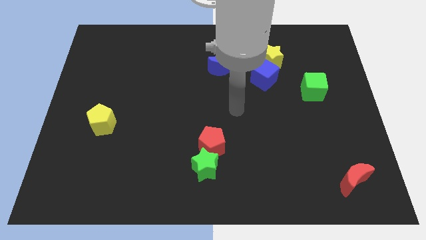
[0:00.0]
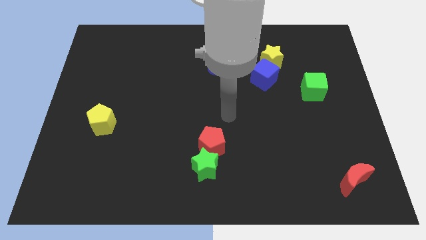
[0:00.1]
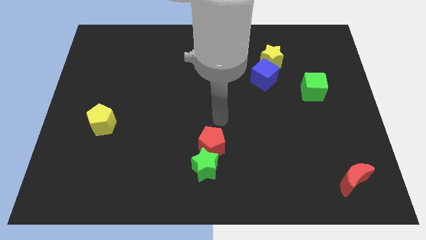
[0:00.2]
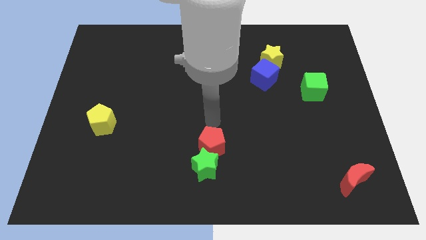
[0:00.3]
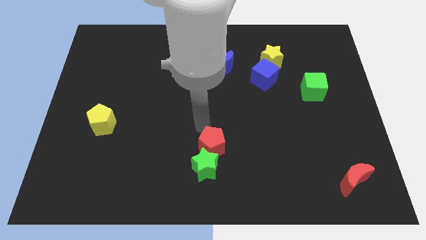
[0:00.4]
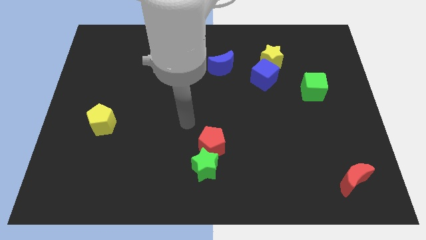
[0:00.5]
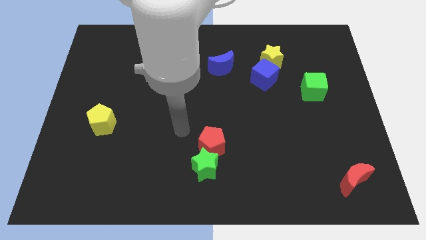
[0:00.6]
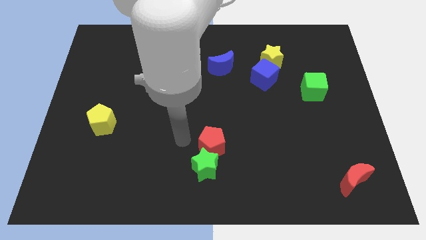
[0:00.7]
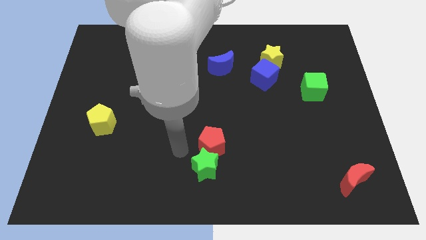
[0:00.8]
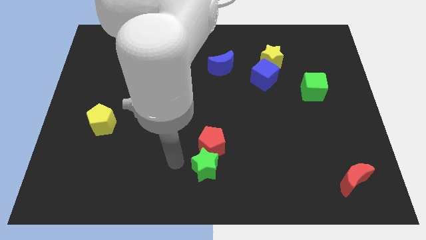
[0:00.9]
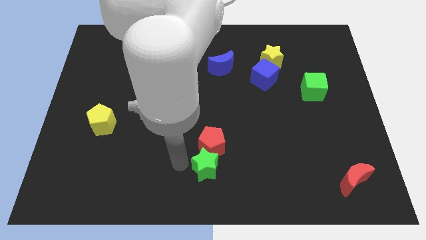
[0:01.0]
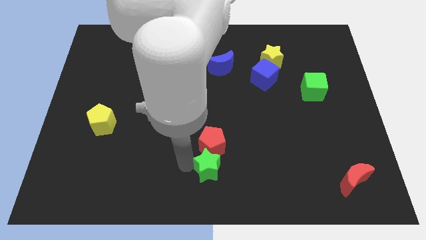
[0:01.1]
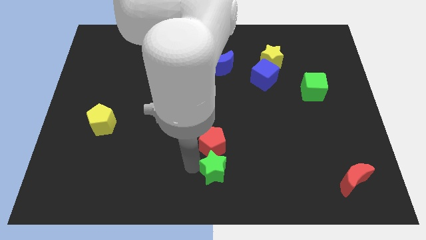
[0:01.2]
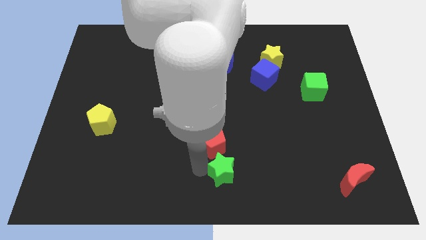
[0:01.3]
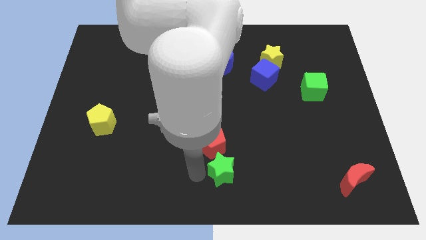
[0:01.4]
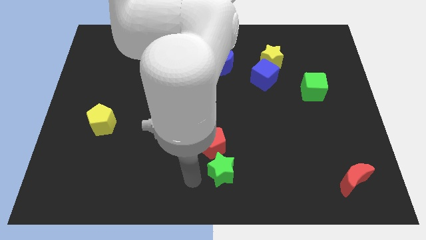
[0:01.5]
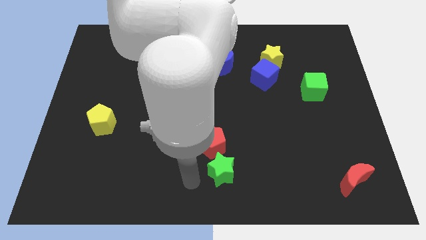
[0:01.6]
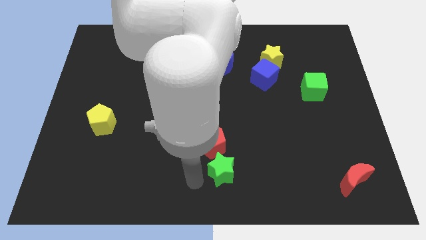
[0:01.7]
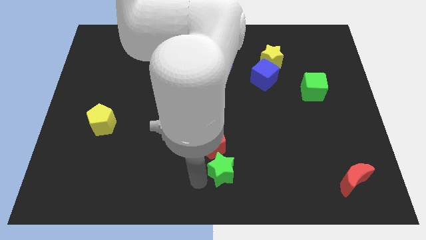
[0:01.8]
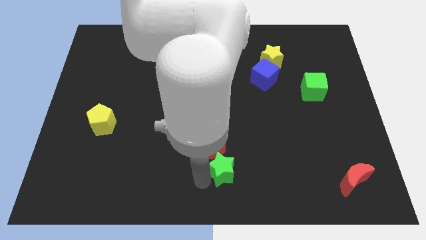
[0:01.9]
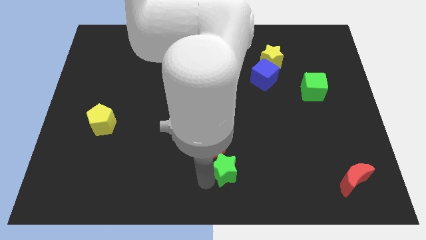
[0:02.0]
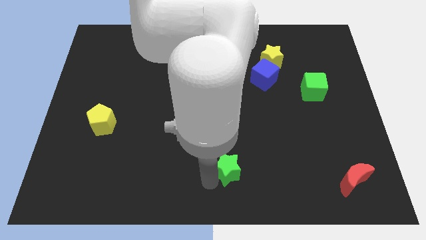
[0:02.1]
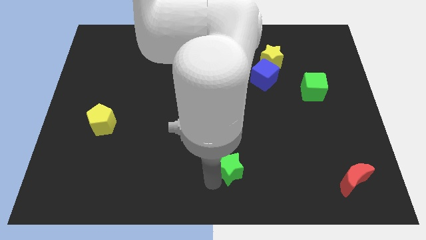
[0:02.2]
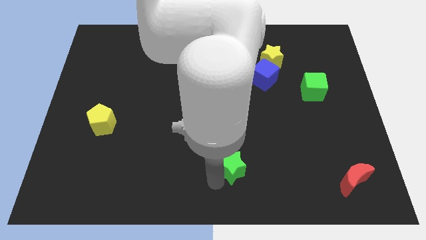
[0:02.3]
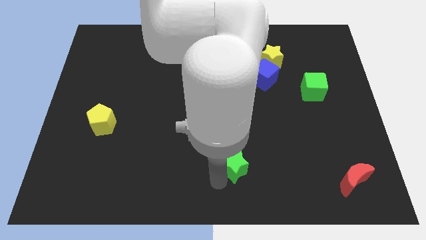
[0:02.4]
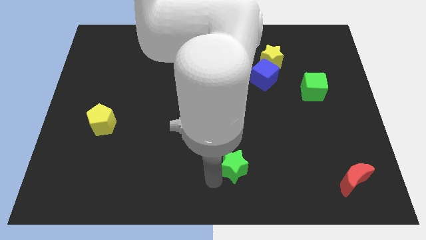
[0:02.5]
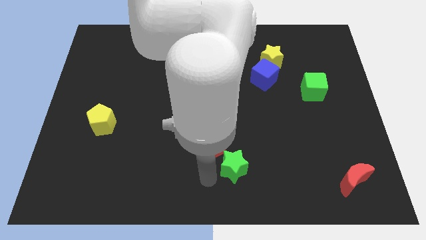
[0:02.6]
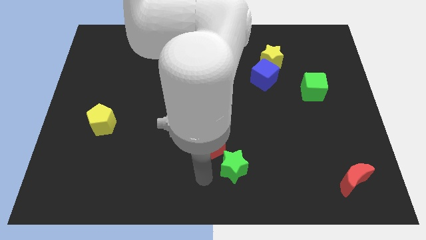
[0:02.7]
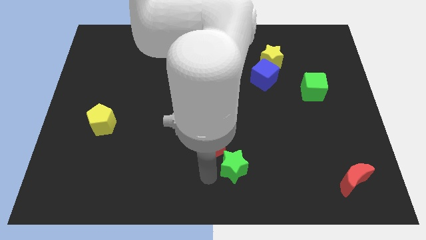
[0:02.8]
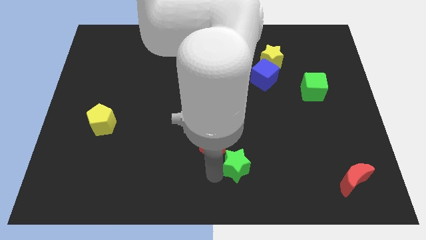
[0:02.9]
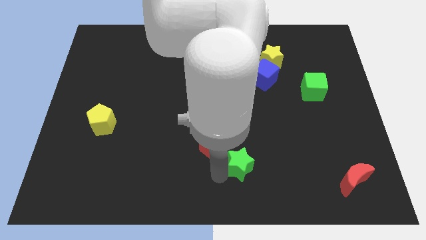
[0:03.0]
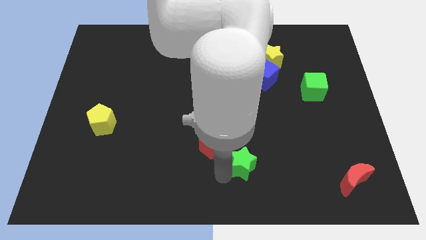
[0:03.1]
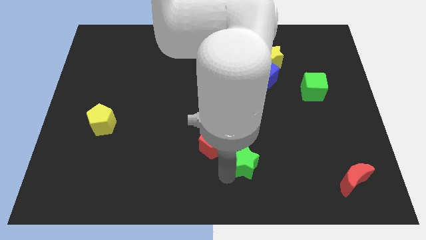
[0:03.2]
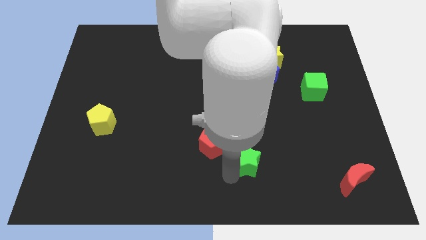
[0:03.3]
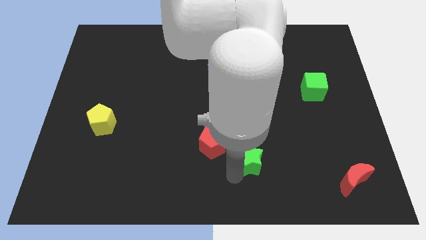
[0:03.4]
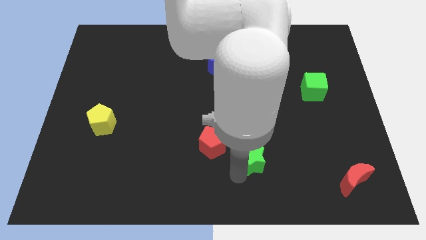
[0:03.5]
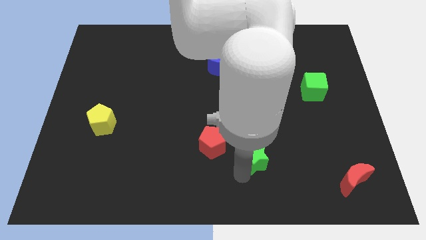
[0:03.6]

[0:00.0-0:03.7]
move the green star upwards and to the right diagonally a bit

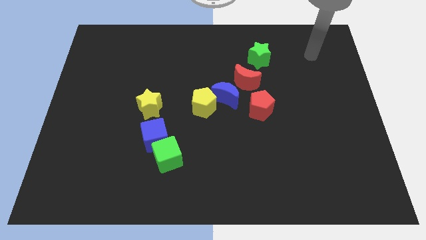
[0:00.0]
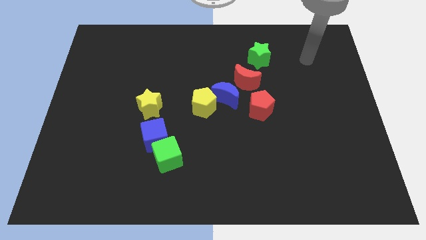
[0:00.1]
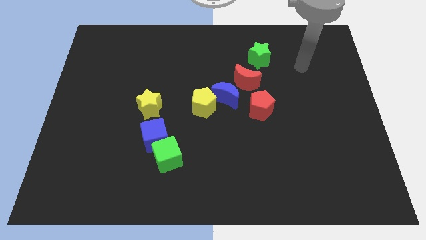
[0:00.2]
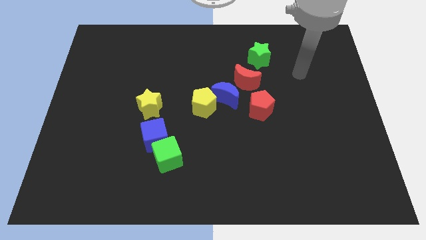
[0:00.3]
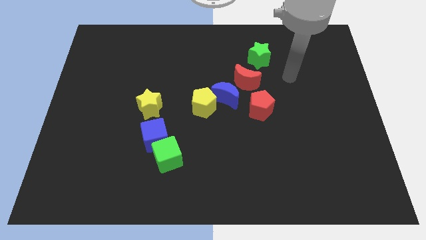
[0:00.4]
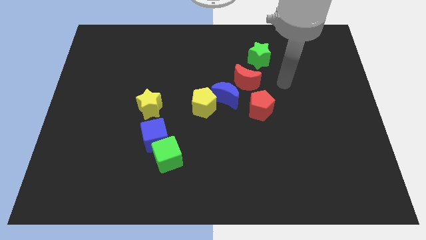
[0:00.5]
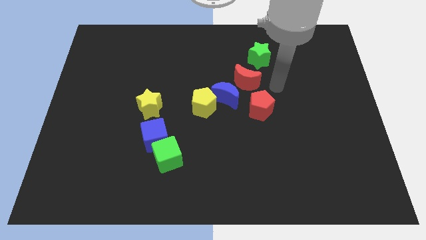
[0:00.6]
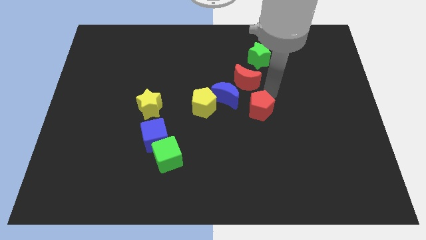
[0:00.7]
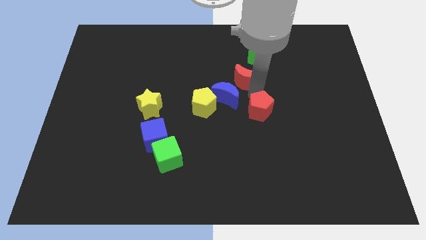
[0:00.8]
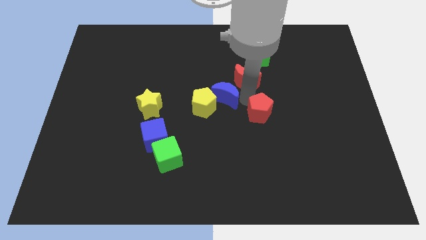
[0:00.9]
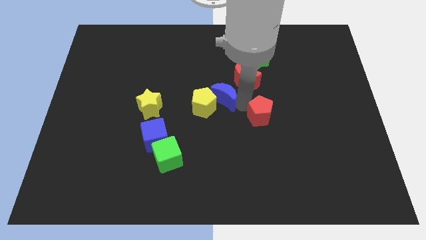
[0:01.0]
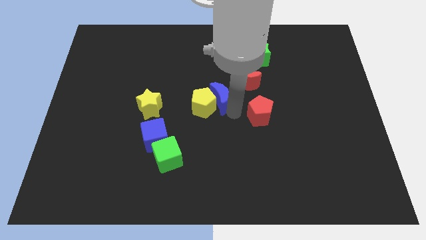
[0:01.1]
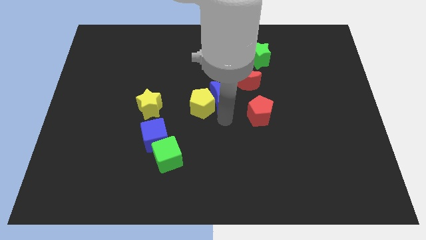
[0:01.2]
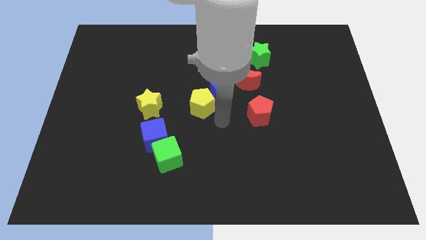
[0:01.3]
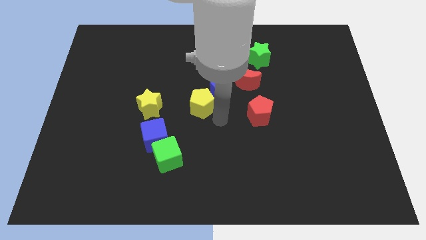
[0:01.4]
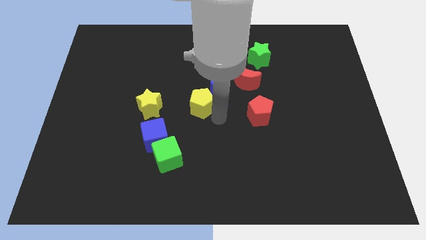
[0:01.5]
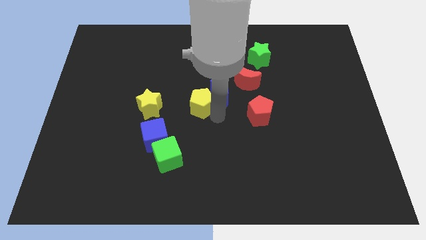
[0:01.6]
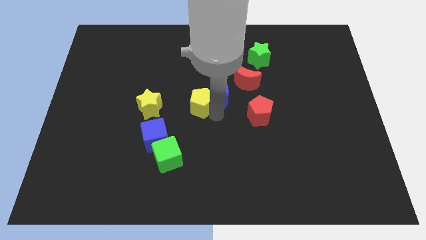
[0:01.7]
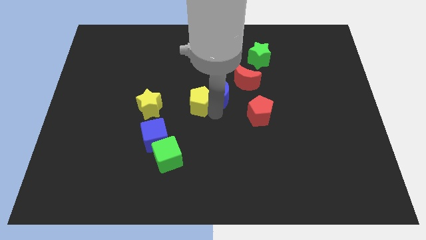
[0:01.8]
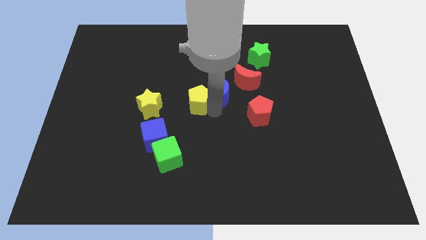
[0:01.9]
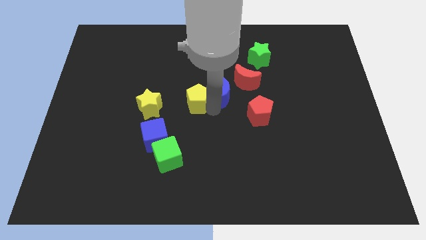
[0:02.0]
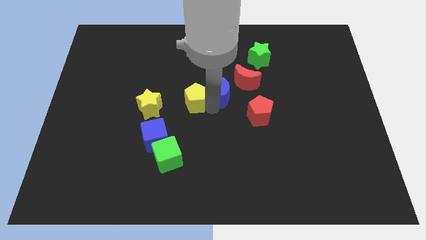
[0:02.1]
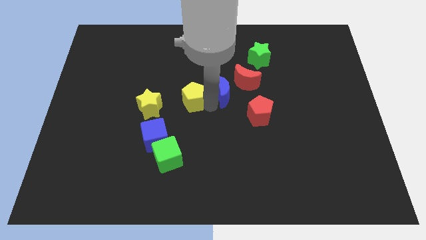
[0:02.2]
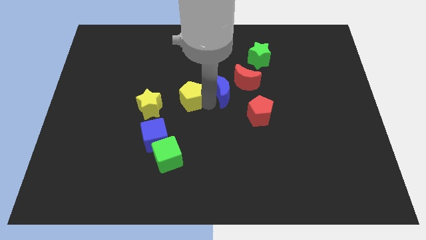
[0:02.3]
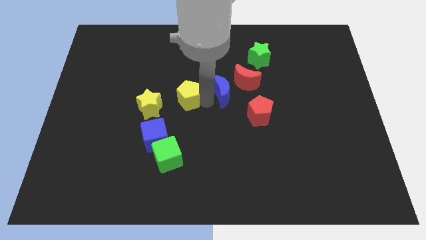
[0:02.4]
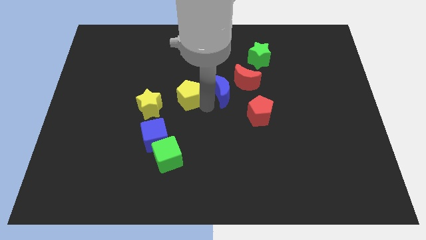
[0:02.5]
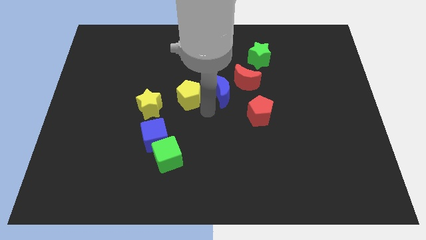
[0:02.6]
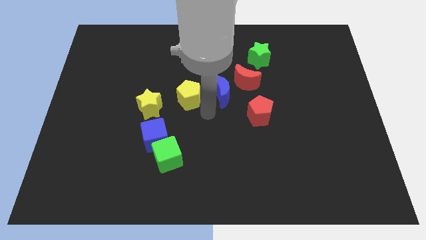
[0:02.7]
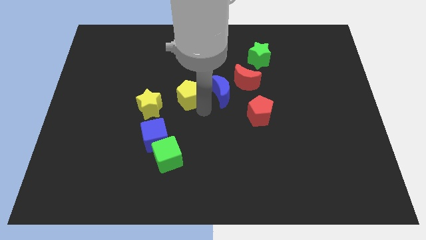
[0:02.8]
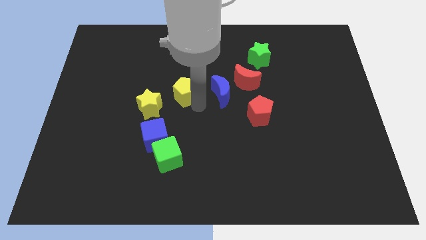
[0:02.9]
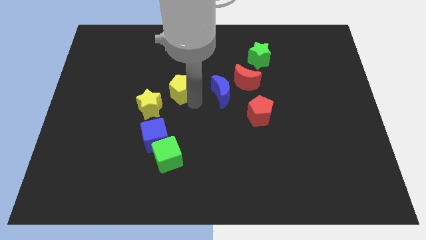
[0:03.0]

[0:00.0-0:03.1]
slightly push the yellow pentagon up and left diagonally

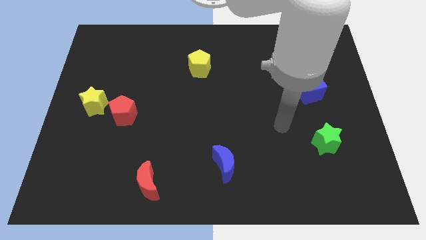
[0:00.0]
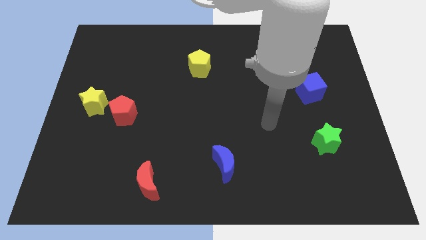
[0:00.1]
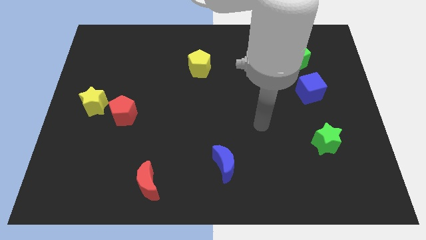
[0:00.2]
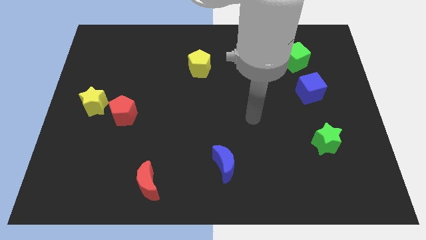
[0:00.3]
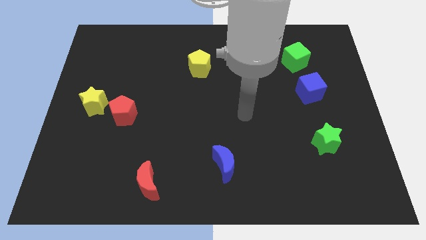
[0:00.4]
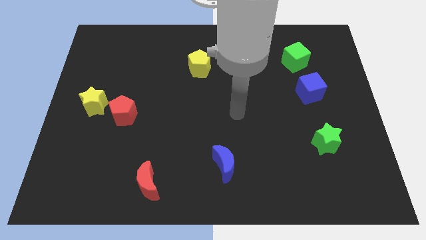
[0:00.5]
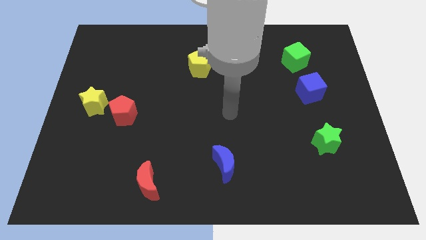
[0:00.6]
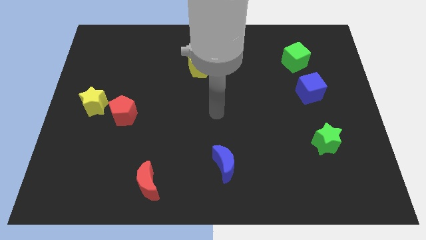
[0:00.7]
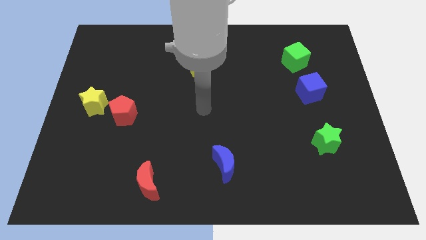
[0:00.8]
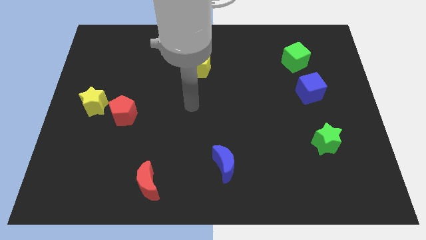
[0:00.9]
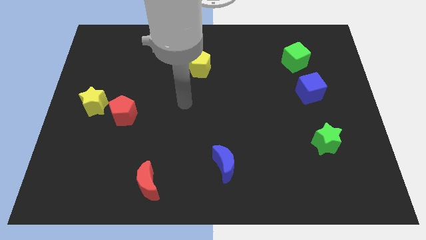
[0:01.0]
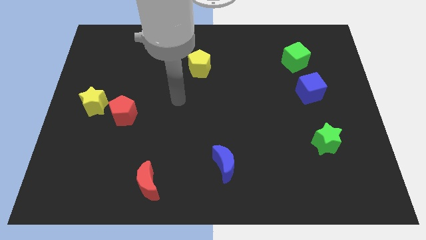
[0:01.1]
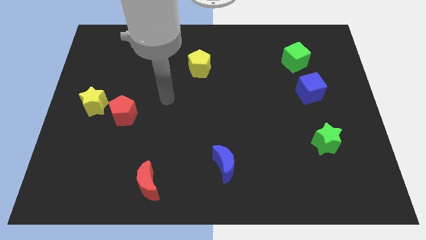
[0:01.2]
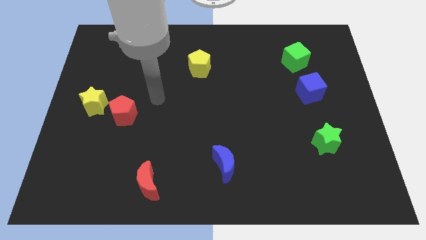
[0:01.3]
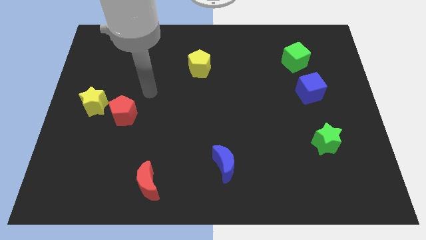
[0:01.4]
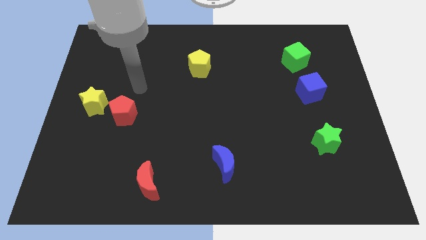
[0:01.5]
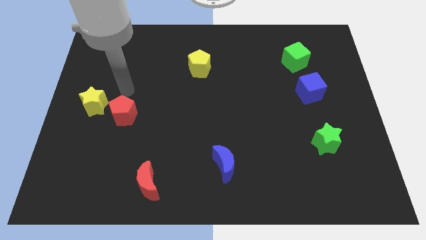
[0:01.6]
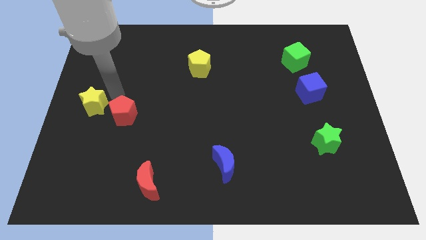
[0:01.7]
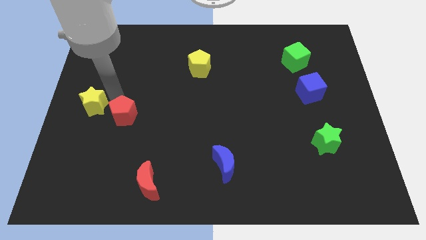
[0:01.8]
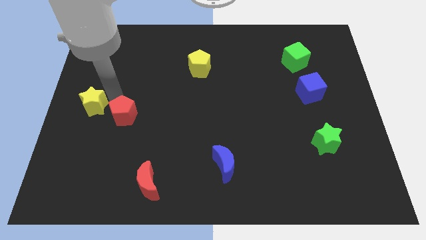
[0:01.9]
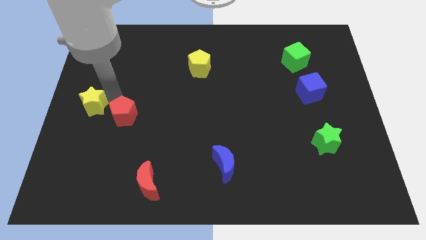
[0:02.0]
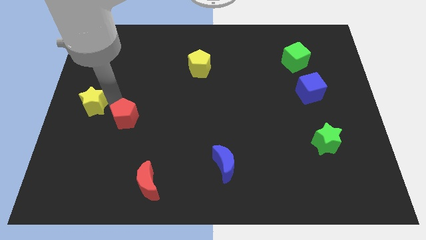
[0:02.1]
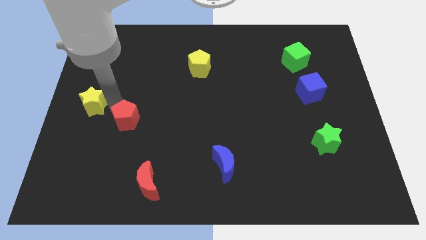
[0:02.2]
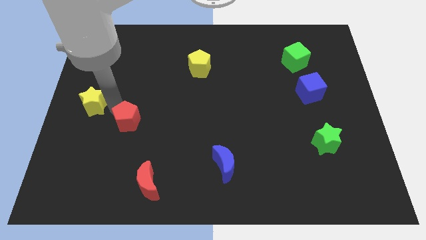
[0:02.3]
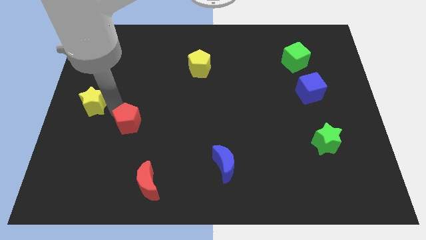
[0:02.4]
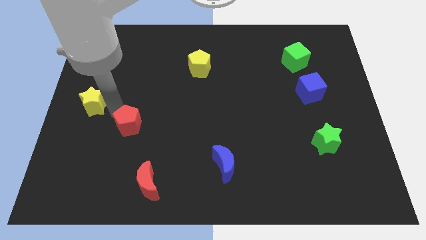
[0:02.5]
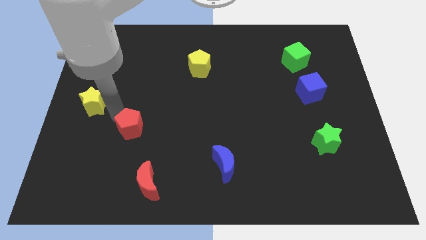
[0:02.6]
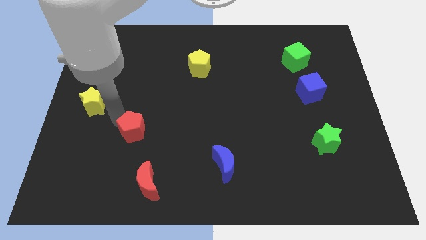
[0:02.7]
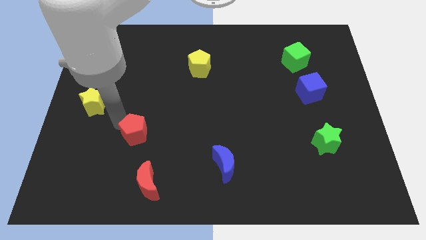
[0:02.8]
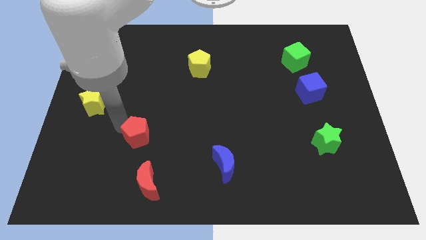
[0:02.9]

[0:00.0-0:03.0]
move the red pentagon downwards and right diagonally somewhat
